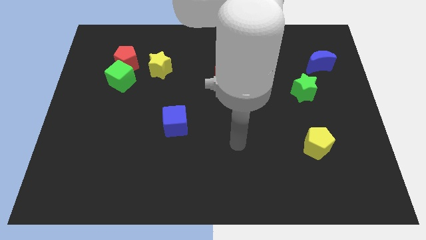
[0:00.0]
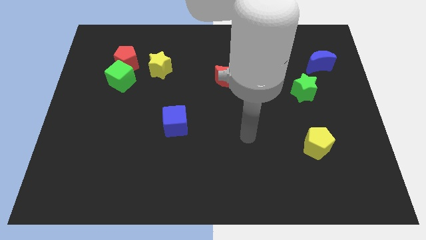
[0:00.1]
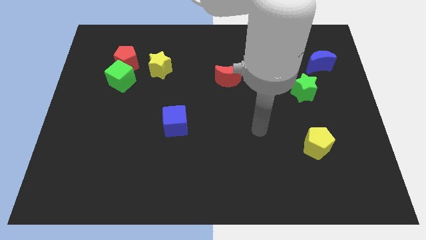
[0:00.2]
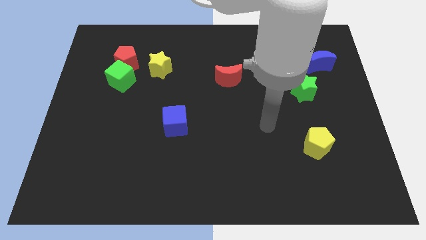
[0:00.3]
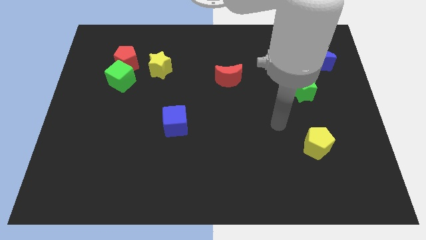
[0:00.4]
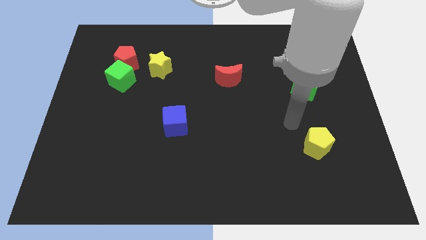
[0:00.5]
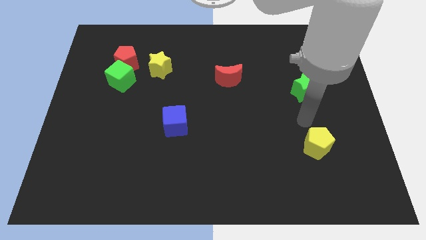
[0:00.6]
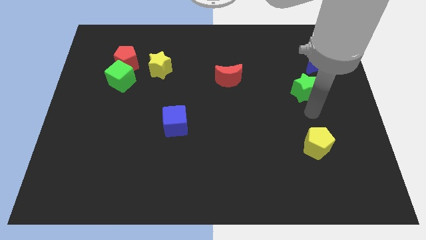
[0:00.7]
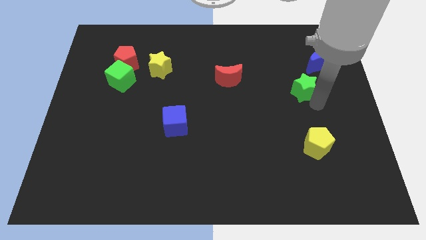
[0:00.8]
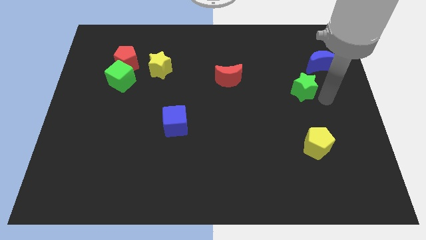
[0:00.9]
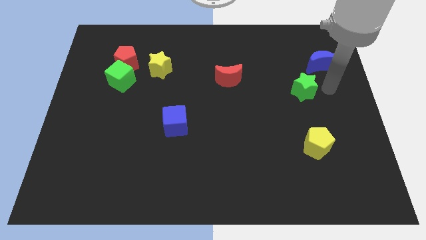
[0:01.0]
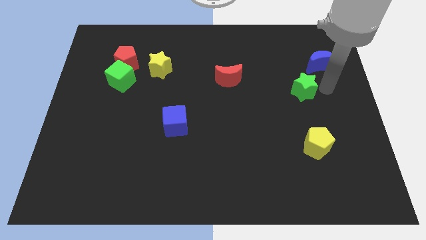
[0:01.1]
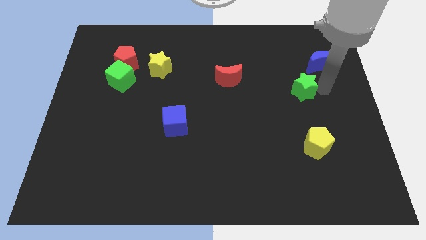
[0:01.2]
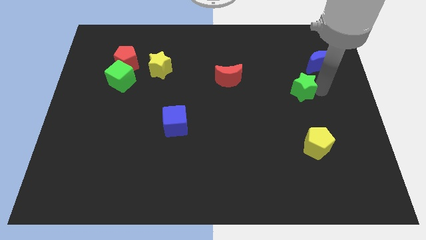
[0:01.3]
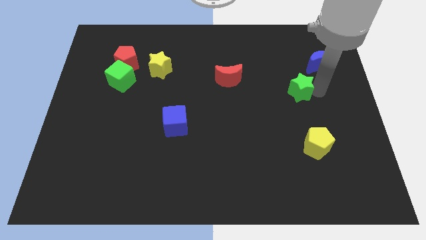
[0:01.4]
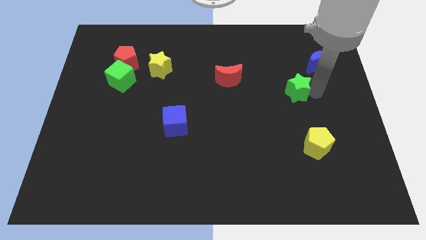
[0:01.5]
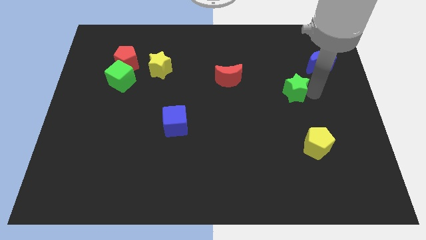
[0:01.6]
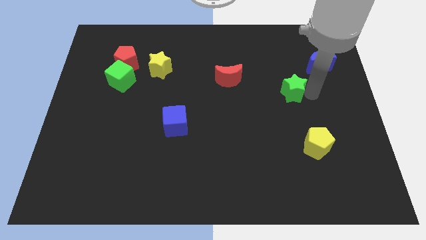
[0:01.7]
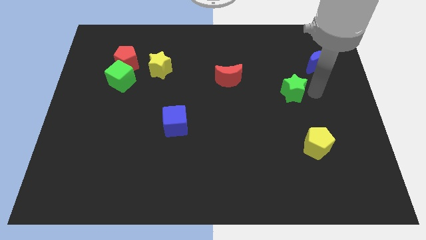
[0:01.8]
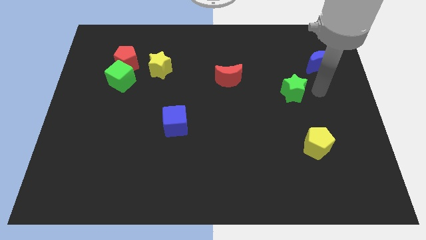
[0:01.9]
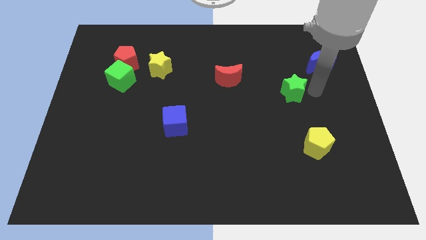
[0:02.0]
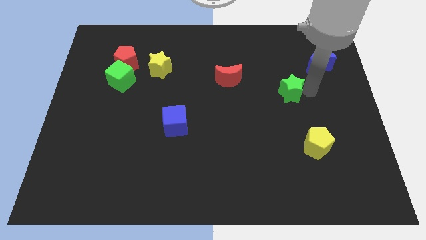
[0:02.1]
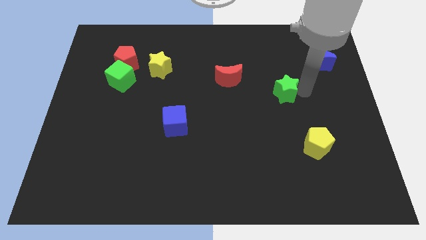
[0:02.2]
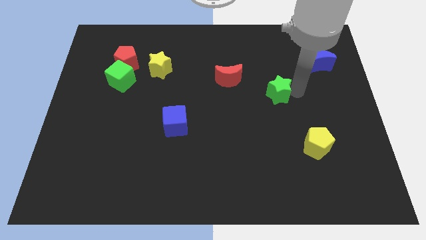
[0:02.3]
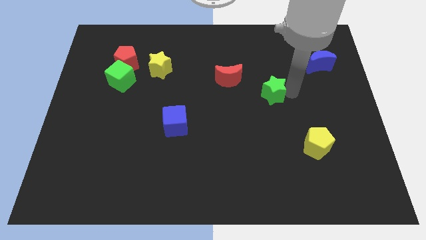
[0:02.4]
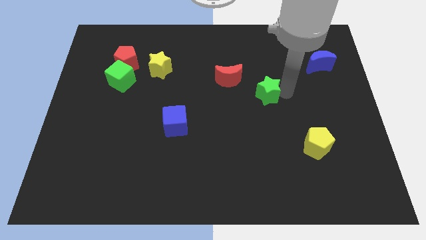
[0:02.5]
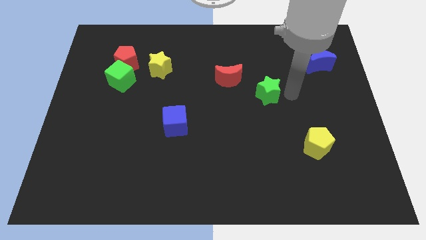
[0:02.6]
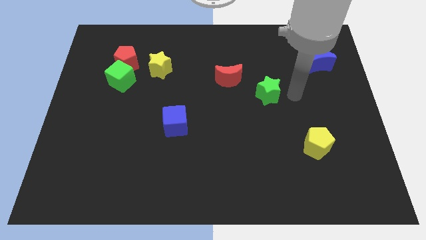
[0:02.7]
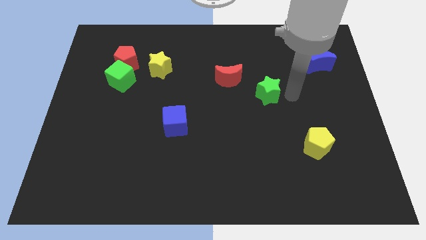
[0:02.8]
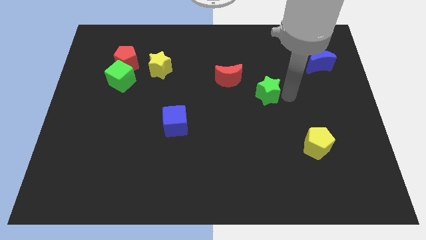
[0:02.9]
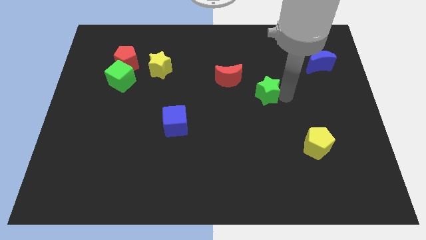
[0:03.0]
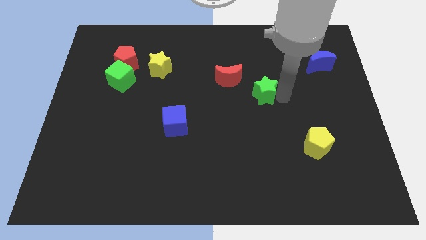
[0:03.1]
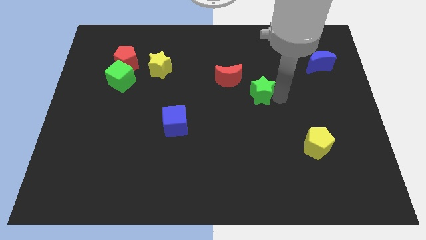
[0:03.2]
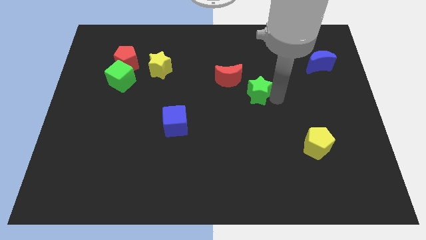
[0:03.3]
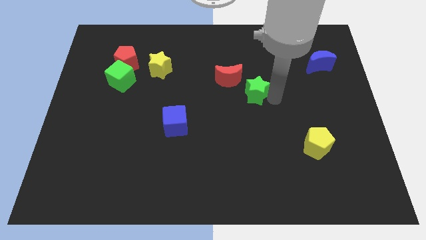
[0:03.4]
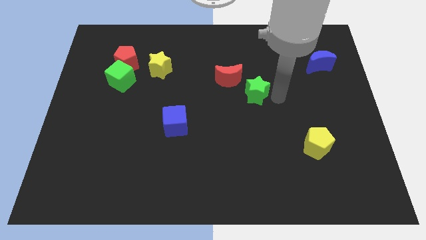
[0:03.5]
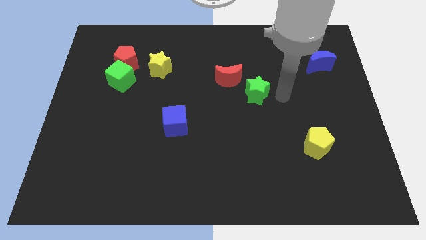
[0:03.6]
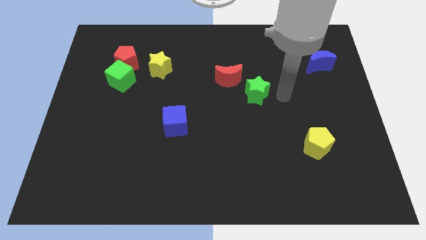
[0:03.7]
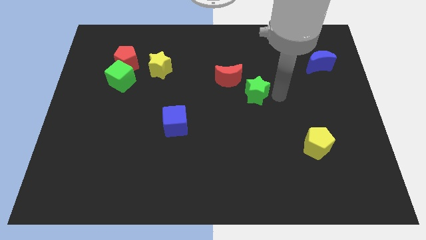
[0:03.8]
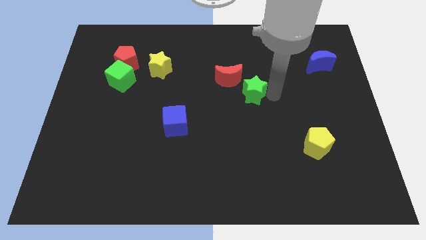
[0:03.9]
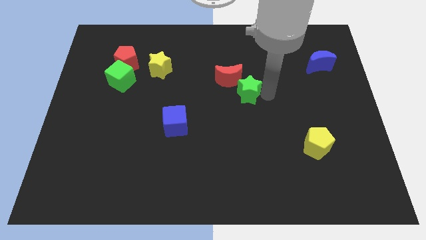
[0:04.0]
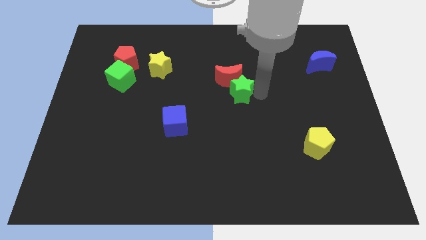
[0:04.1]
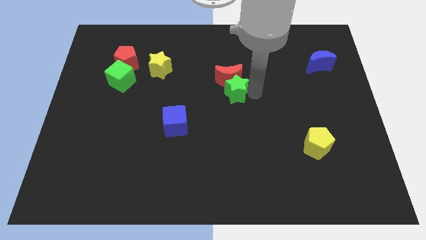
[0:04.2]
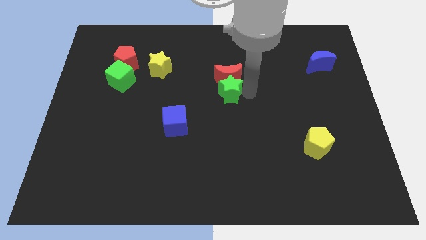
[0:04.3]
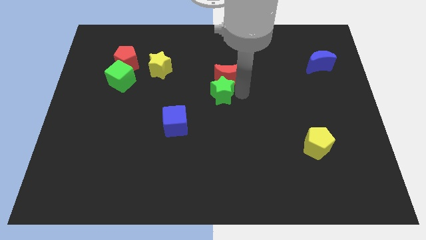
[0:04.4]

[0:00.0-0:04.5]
move the green star left

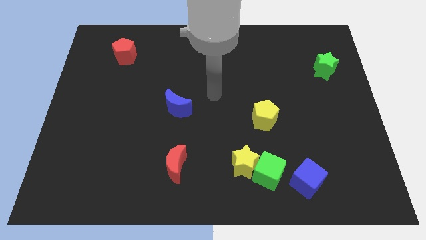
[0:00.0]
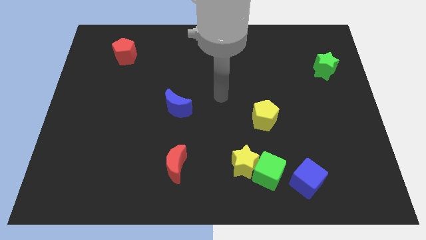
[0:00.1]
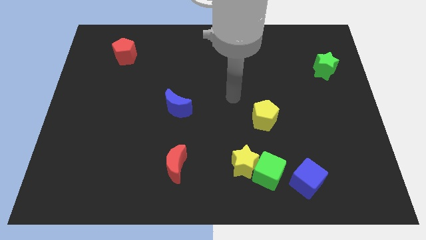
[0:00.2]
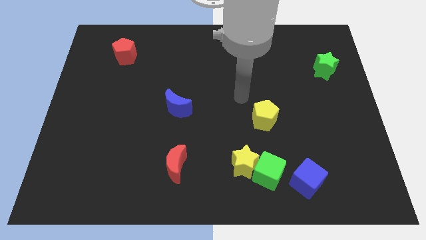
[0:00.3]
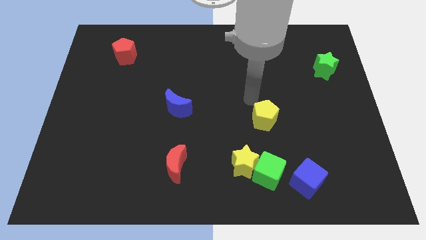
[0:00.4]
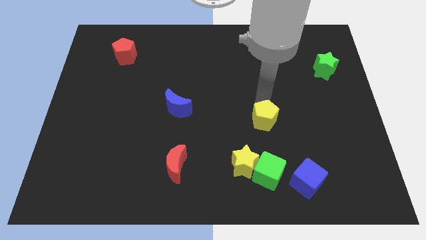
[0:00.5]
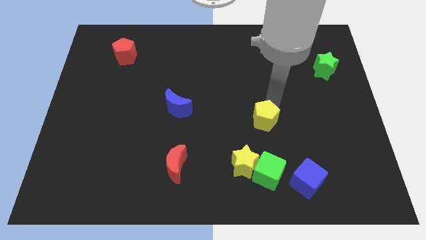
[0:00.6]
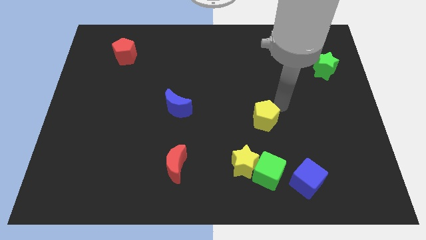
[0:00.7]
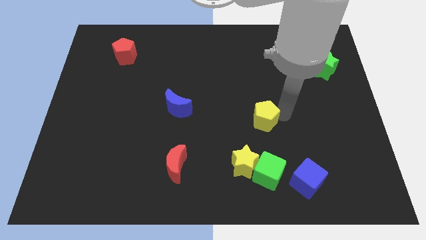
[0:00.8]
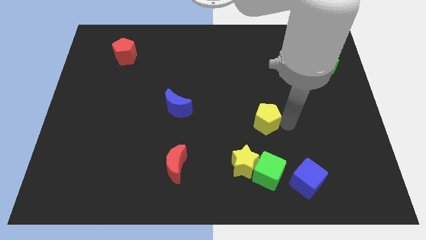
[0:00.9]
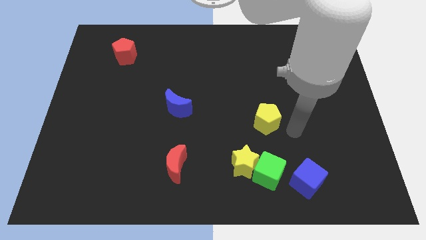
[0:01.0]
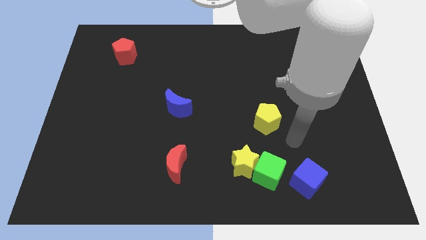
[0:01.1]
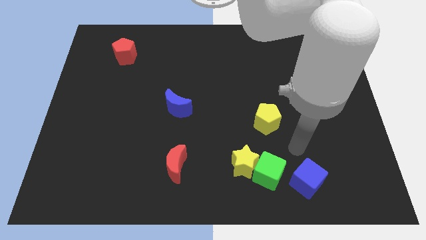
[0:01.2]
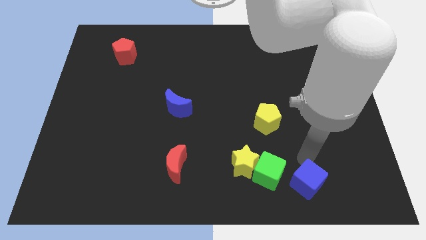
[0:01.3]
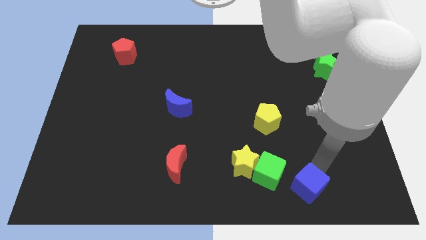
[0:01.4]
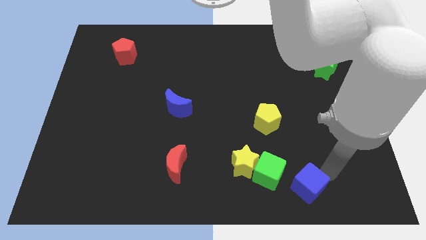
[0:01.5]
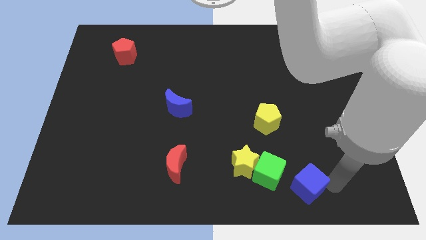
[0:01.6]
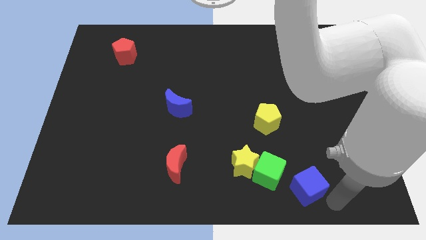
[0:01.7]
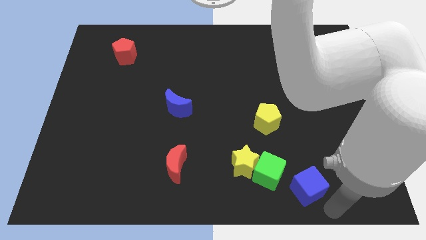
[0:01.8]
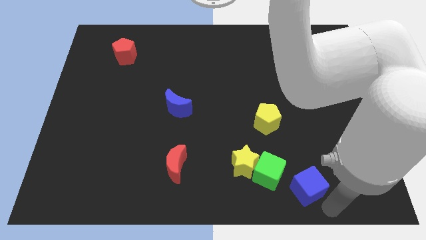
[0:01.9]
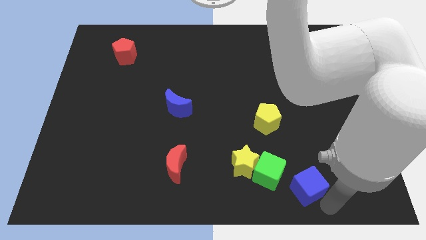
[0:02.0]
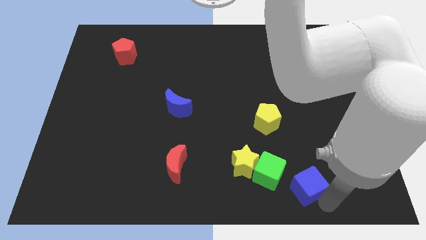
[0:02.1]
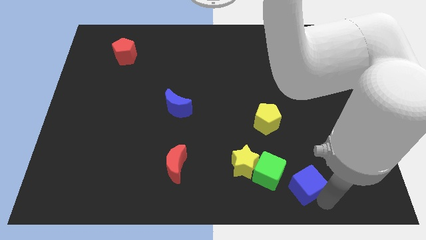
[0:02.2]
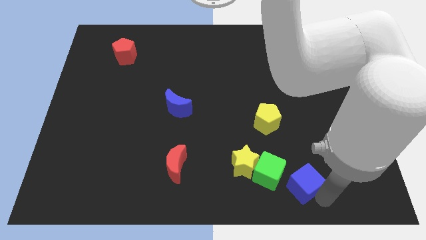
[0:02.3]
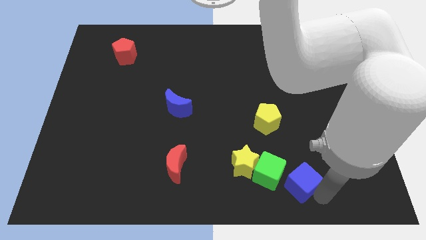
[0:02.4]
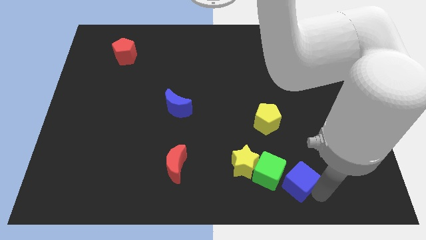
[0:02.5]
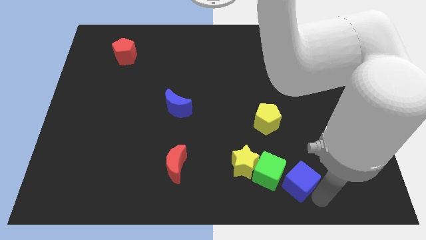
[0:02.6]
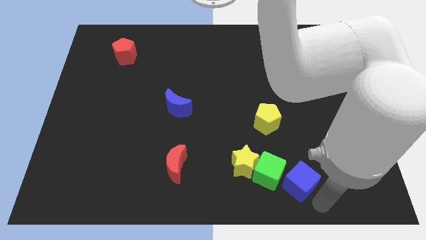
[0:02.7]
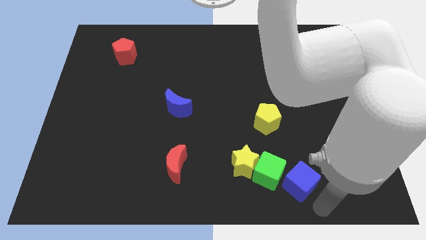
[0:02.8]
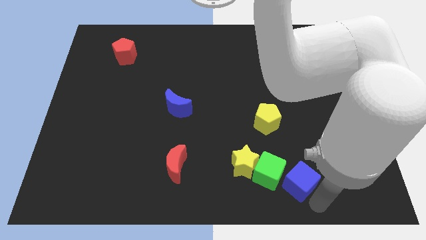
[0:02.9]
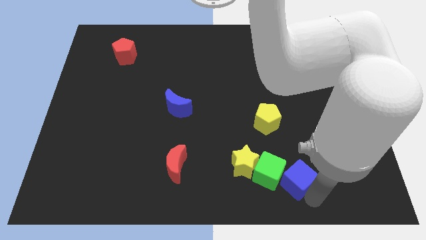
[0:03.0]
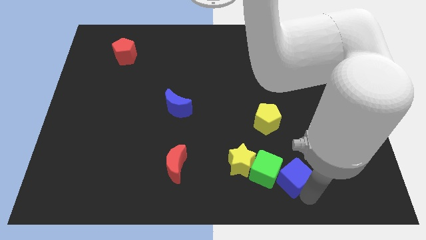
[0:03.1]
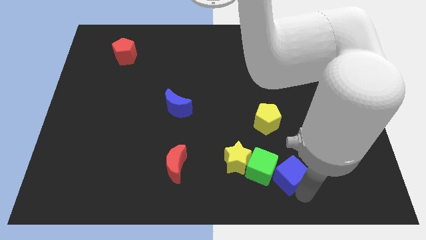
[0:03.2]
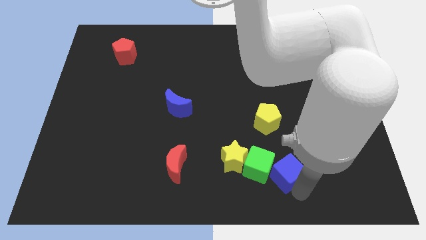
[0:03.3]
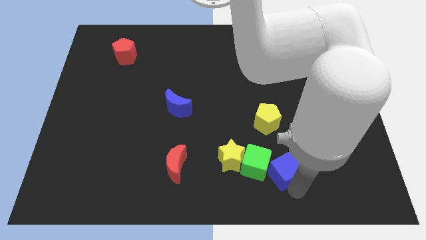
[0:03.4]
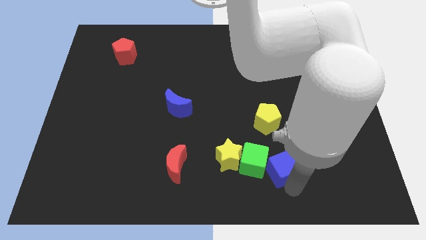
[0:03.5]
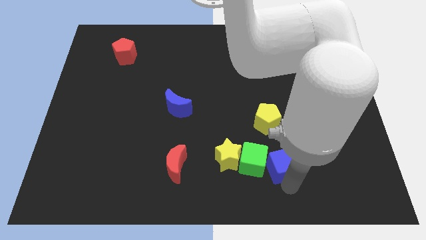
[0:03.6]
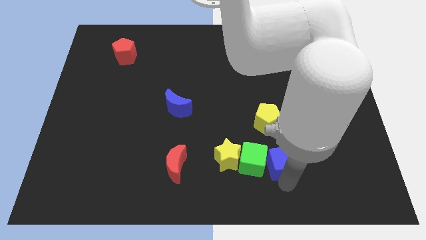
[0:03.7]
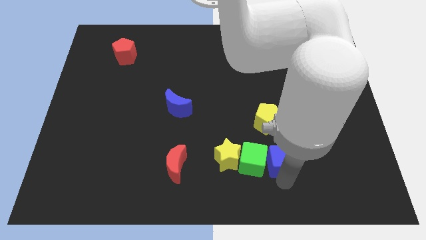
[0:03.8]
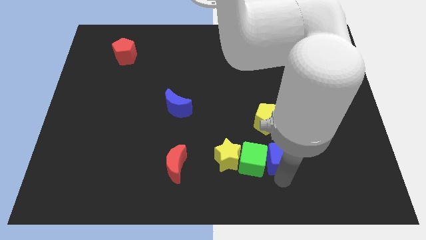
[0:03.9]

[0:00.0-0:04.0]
slightly slide the blue cube up and then left
